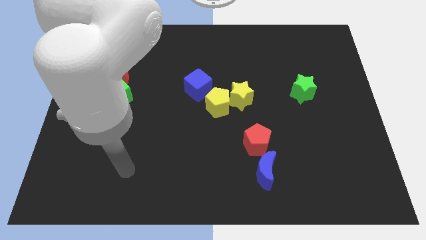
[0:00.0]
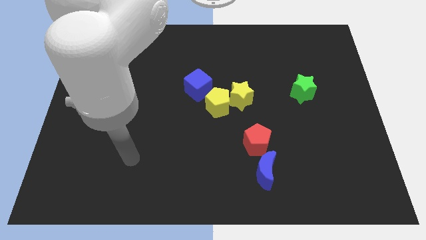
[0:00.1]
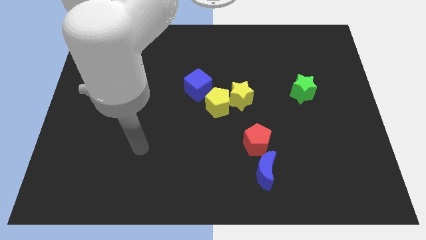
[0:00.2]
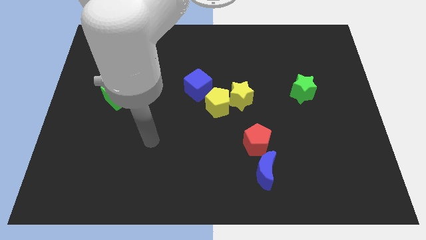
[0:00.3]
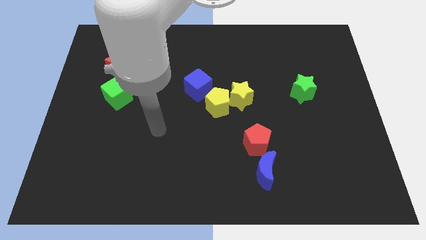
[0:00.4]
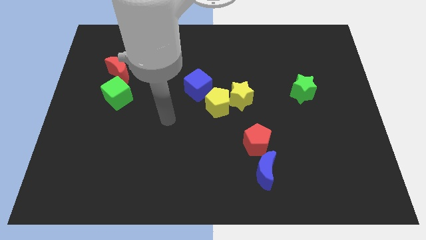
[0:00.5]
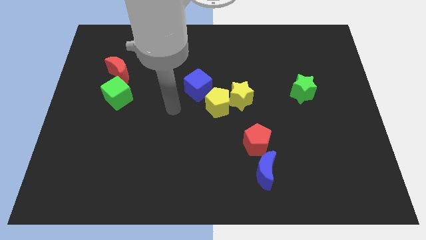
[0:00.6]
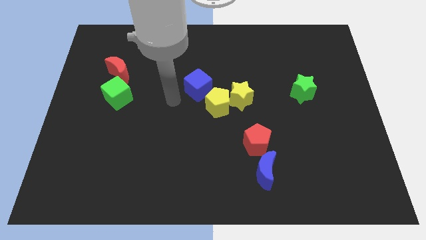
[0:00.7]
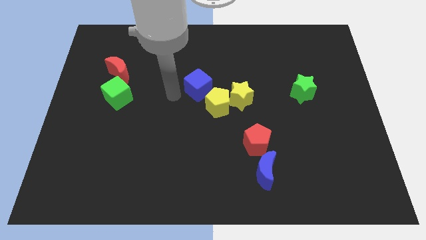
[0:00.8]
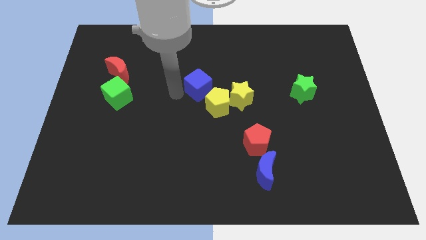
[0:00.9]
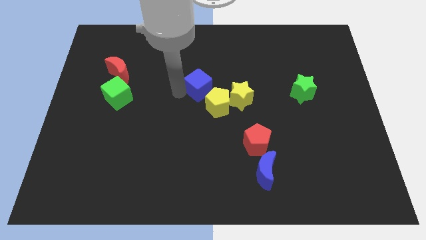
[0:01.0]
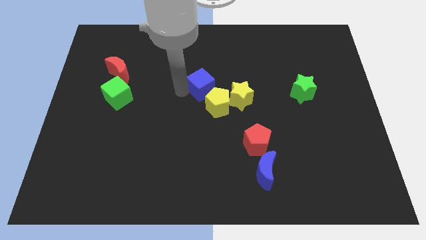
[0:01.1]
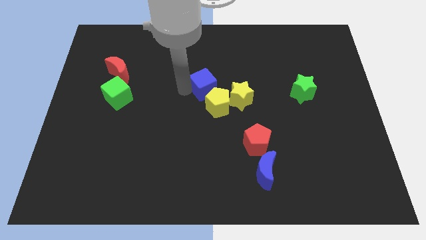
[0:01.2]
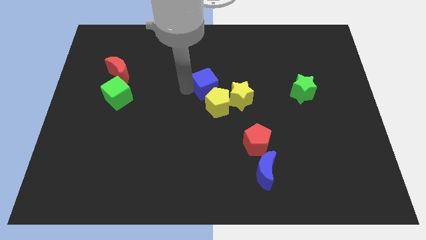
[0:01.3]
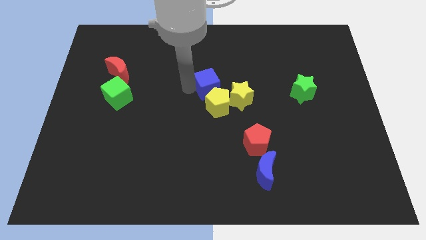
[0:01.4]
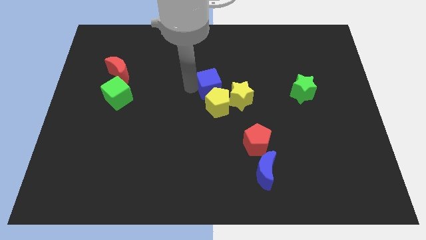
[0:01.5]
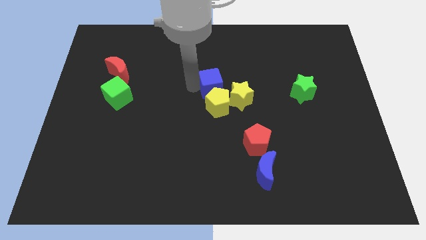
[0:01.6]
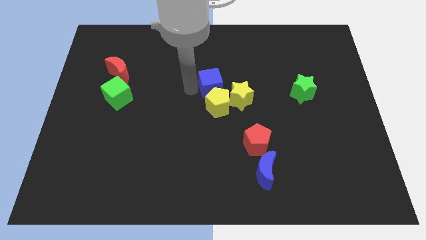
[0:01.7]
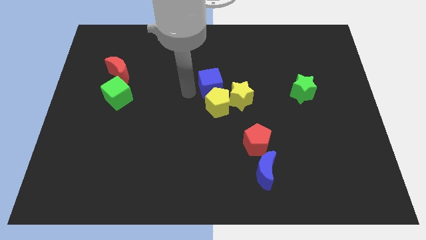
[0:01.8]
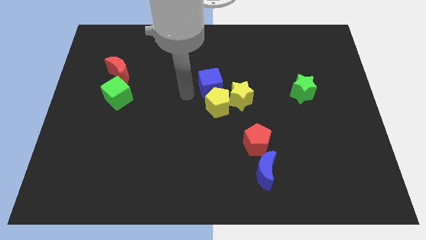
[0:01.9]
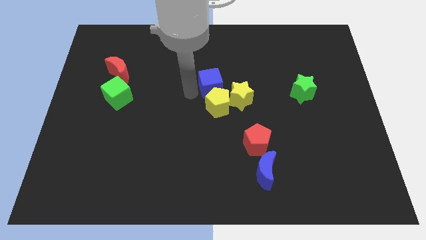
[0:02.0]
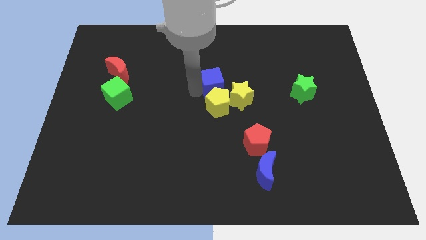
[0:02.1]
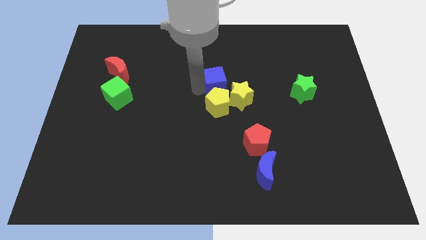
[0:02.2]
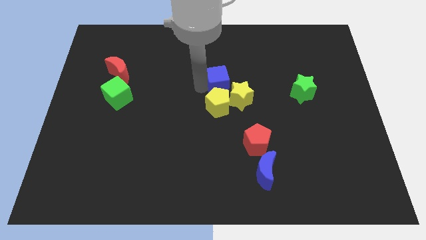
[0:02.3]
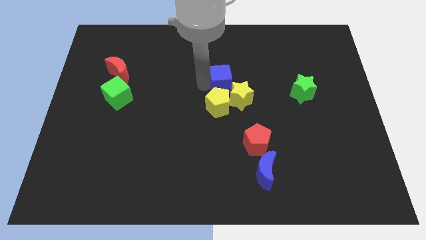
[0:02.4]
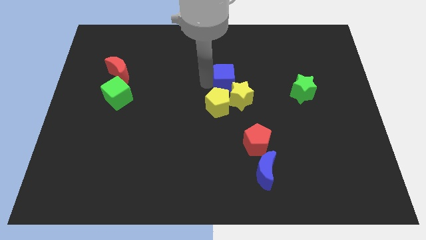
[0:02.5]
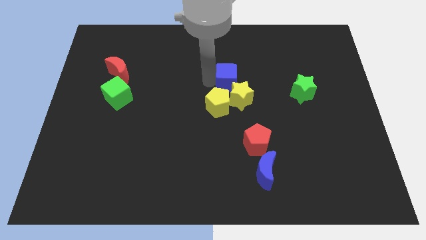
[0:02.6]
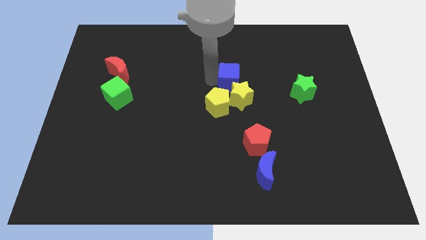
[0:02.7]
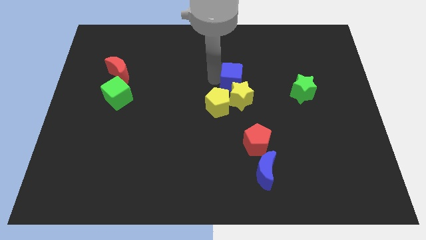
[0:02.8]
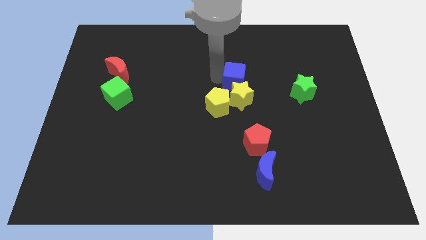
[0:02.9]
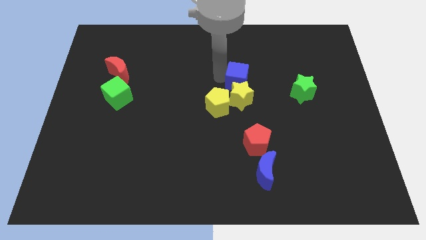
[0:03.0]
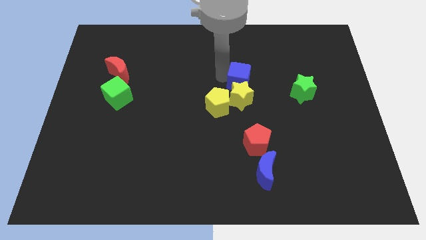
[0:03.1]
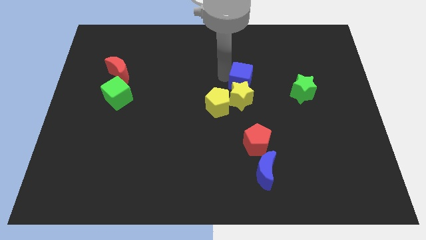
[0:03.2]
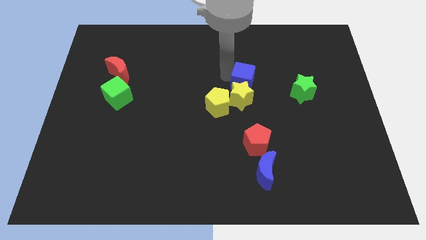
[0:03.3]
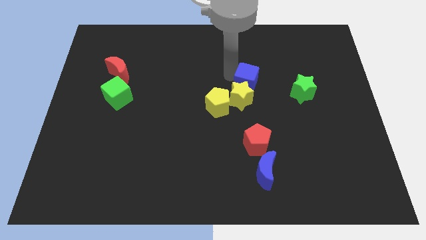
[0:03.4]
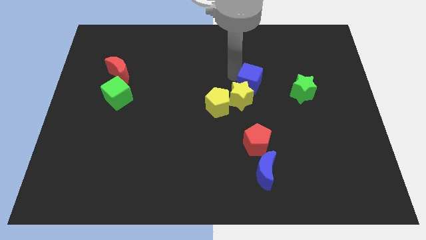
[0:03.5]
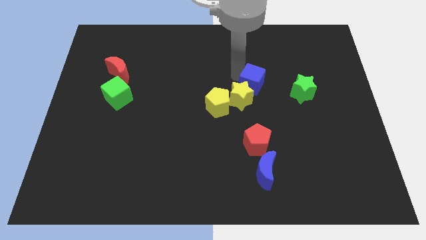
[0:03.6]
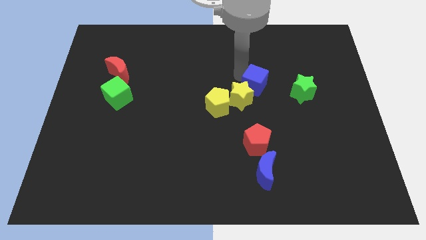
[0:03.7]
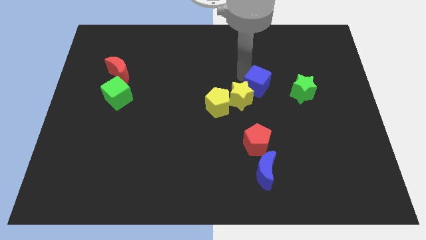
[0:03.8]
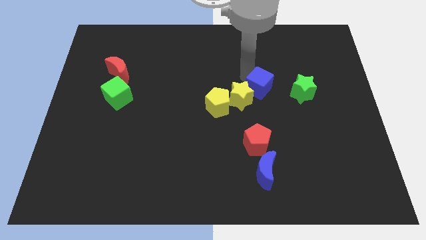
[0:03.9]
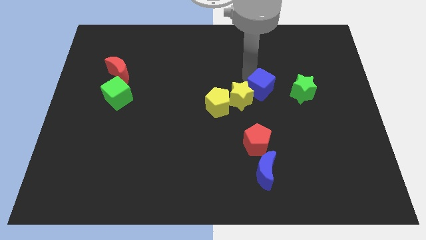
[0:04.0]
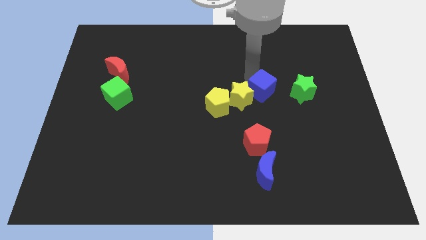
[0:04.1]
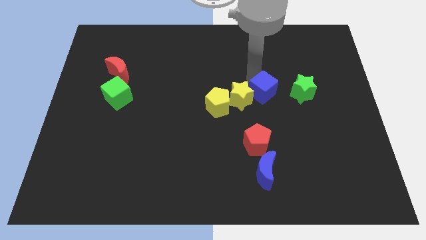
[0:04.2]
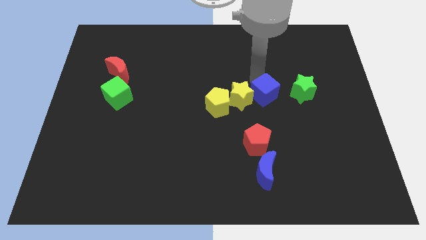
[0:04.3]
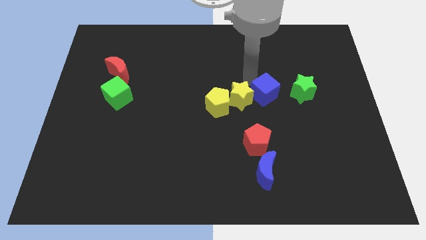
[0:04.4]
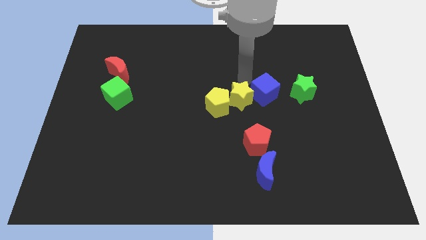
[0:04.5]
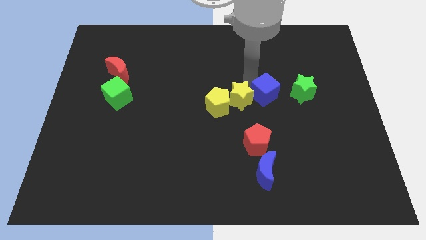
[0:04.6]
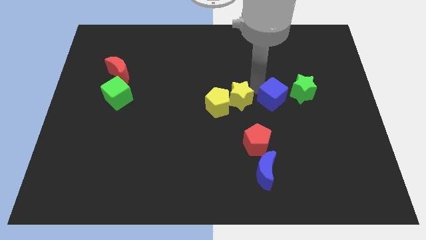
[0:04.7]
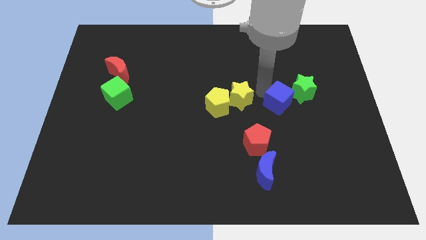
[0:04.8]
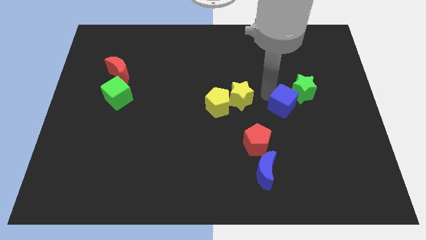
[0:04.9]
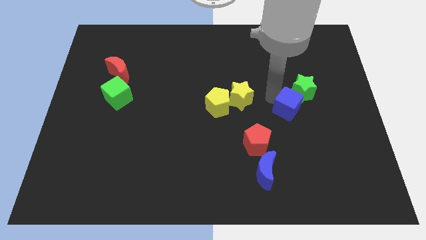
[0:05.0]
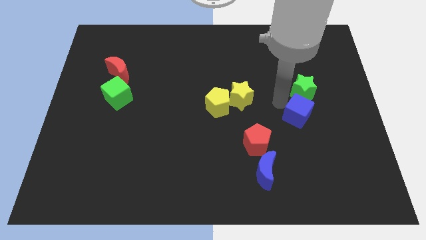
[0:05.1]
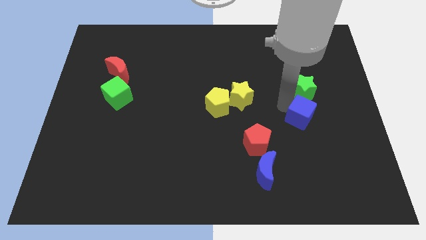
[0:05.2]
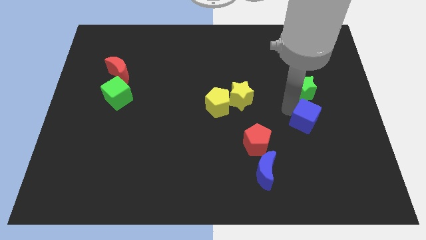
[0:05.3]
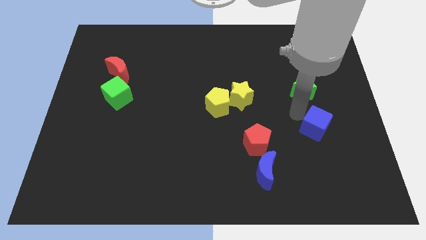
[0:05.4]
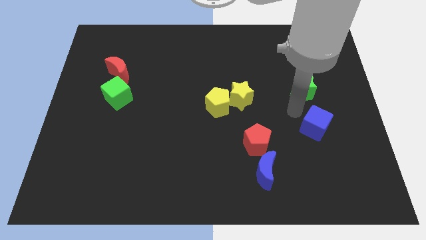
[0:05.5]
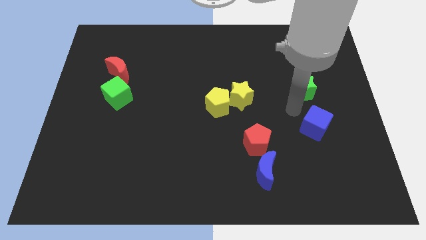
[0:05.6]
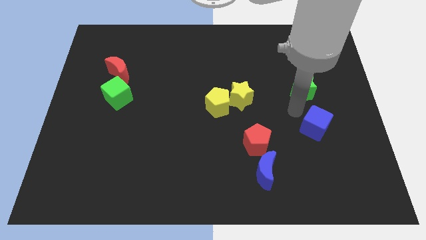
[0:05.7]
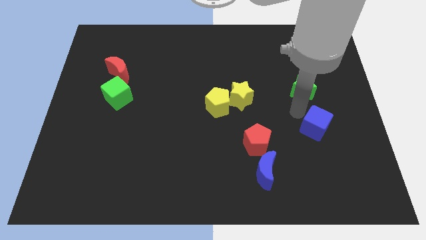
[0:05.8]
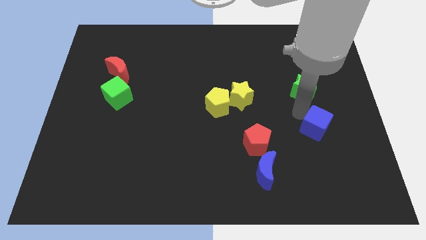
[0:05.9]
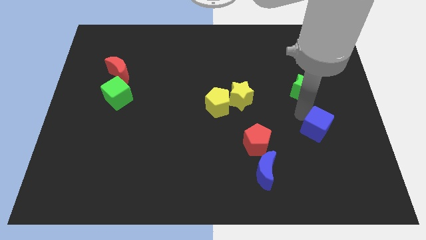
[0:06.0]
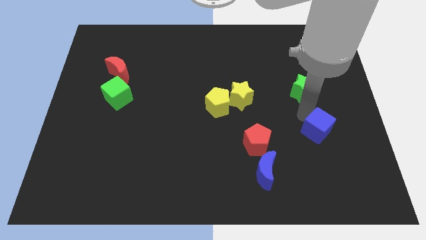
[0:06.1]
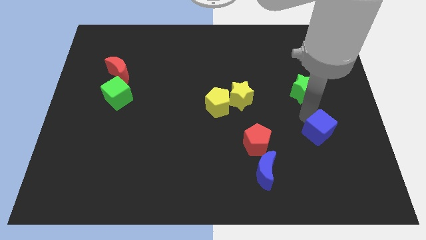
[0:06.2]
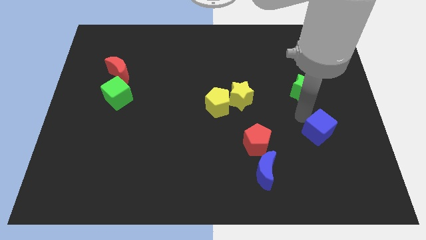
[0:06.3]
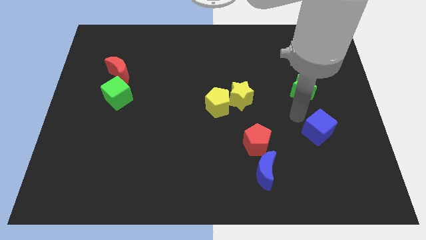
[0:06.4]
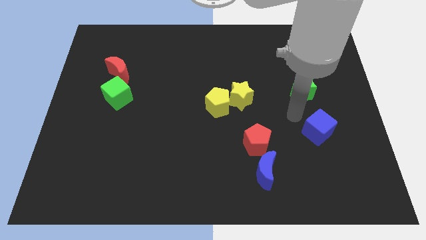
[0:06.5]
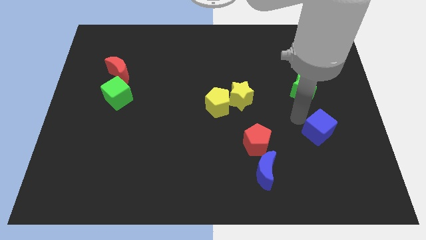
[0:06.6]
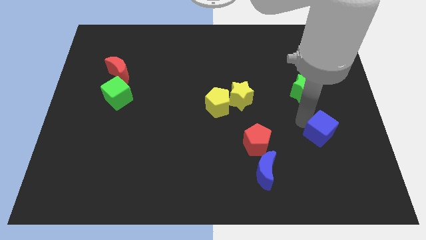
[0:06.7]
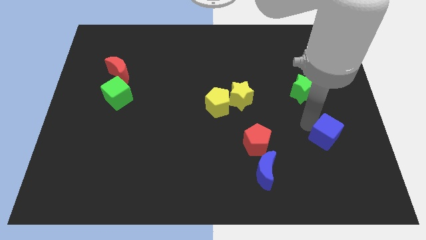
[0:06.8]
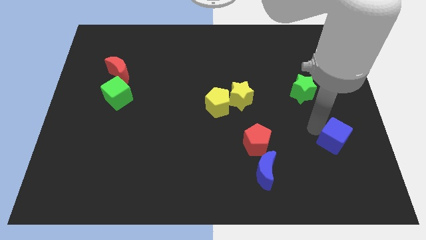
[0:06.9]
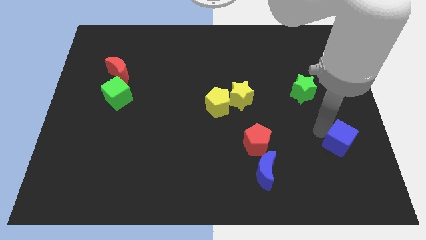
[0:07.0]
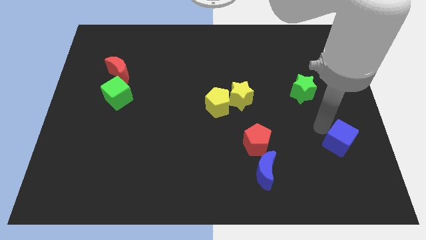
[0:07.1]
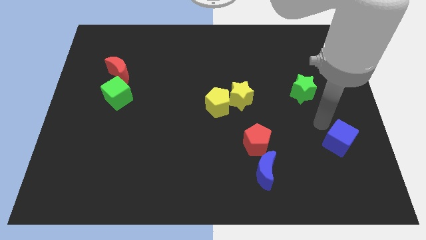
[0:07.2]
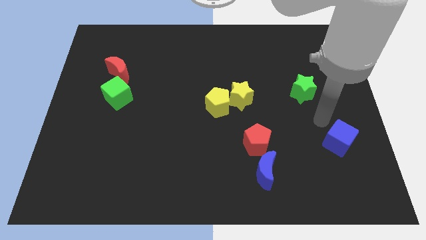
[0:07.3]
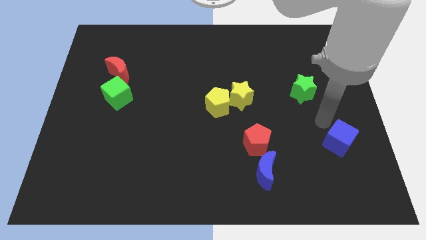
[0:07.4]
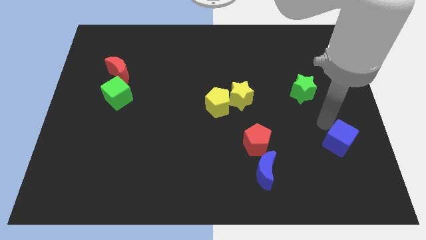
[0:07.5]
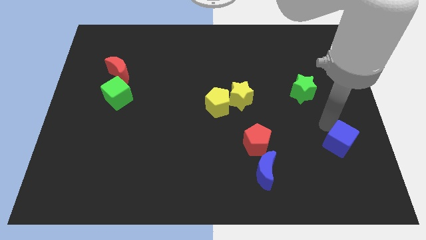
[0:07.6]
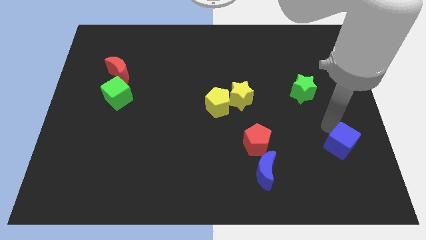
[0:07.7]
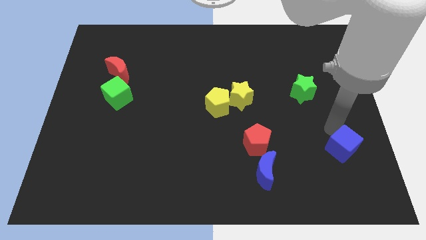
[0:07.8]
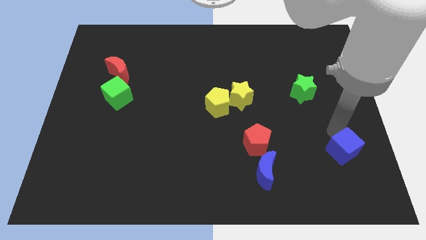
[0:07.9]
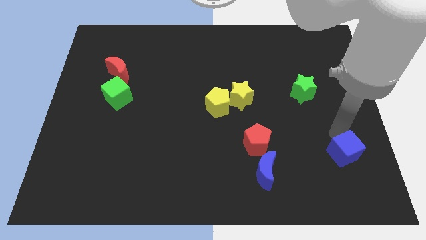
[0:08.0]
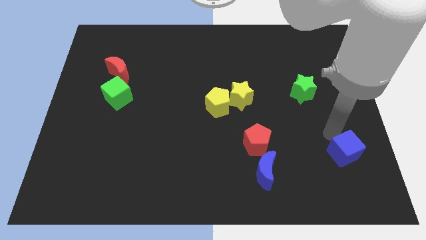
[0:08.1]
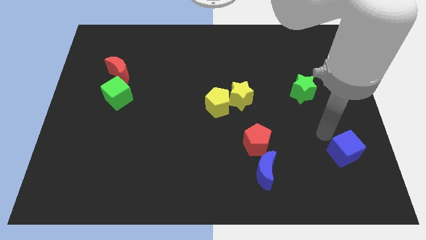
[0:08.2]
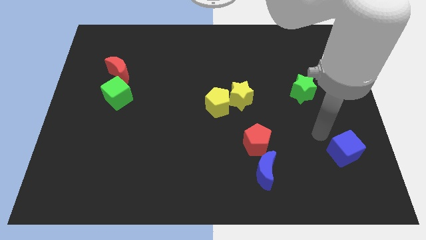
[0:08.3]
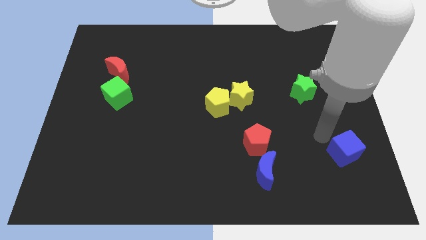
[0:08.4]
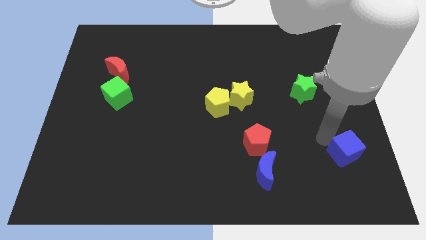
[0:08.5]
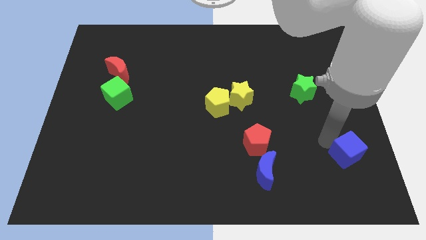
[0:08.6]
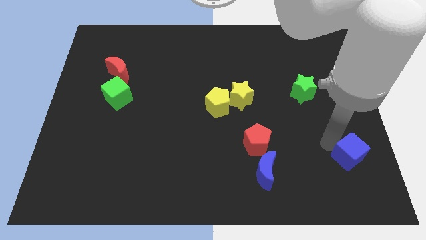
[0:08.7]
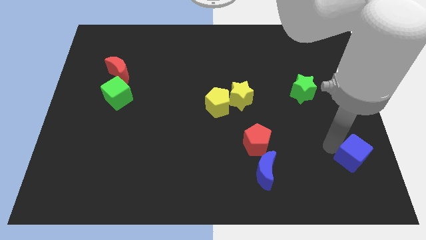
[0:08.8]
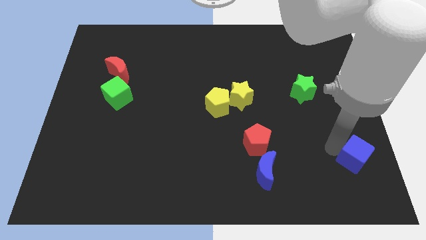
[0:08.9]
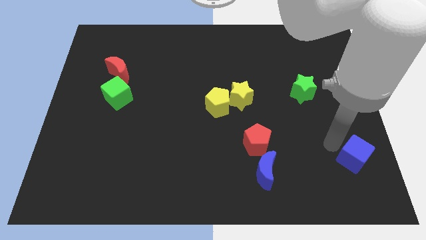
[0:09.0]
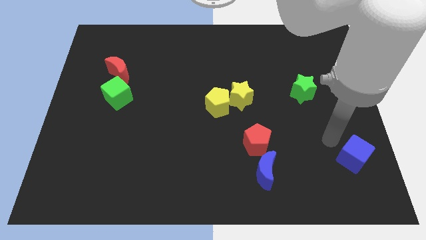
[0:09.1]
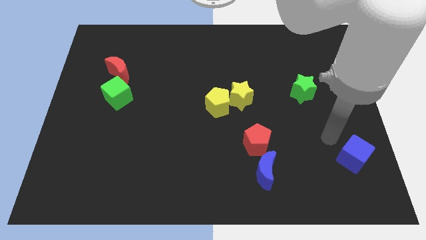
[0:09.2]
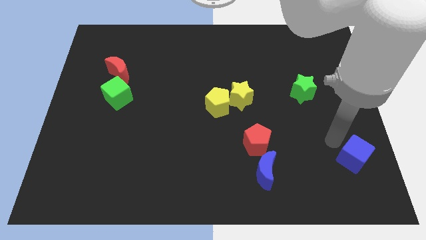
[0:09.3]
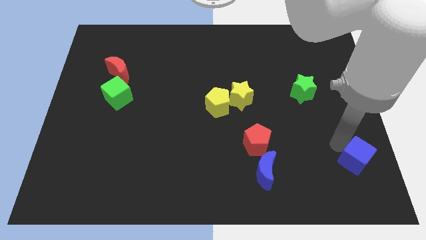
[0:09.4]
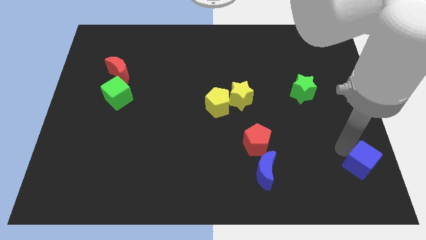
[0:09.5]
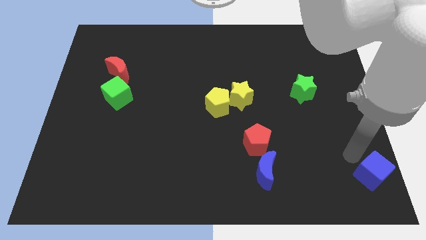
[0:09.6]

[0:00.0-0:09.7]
put the blue cube to the bottom right corner
